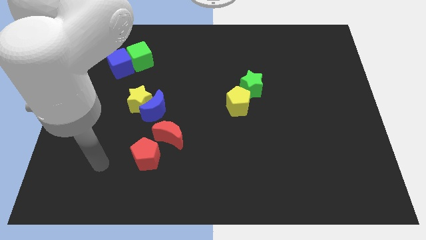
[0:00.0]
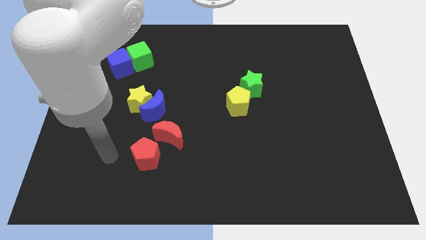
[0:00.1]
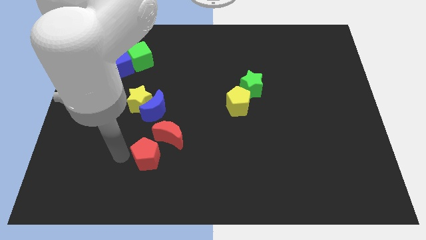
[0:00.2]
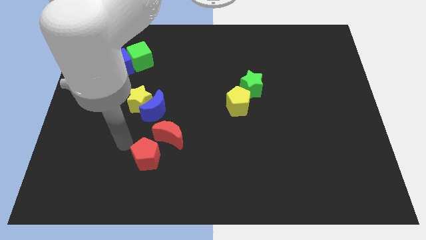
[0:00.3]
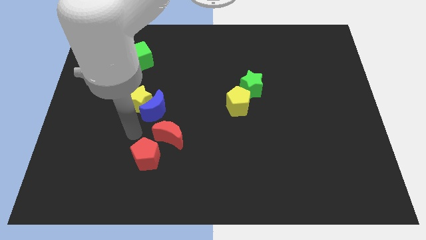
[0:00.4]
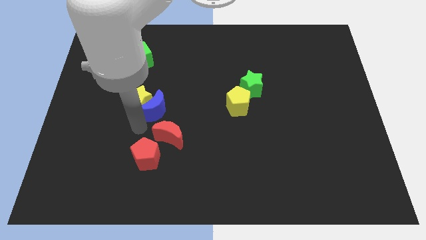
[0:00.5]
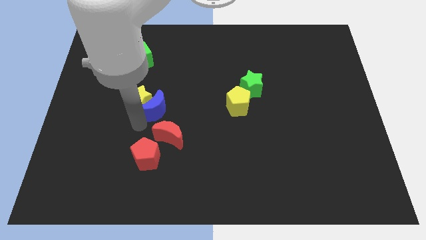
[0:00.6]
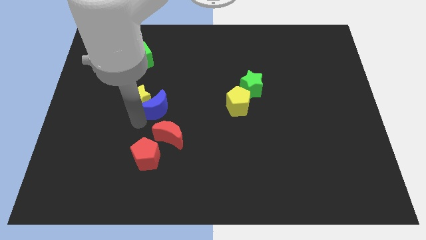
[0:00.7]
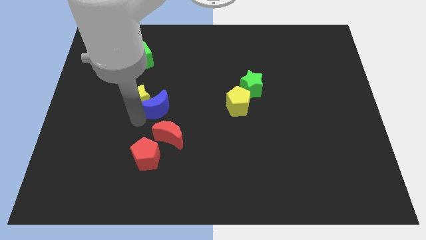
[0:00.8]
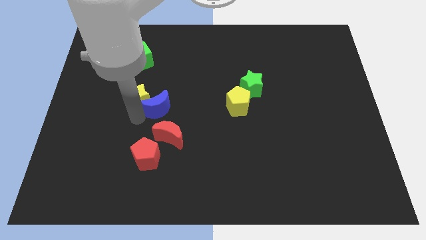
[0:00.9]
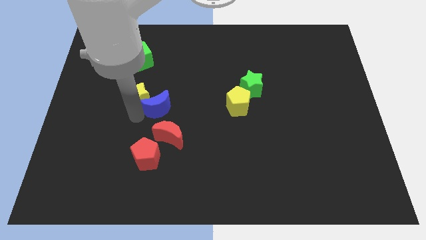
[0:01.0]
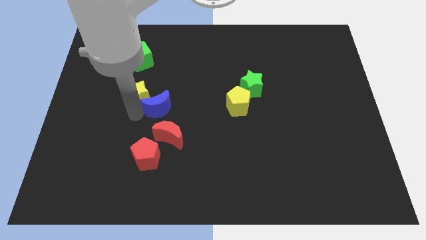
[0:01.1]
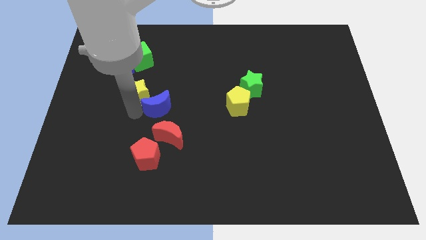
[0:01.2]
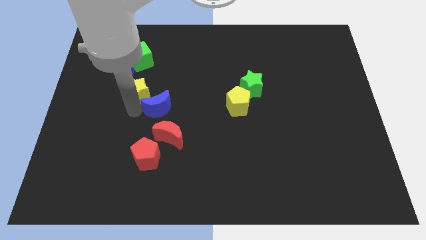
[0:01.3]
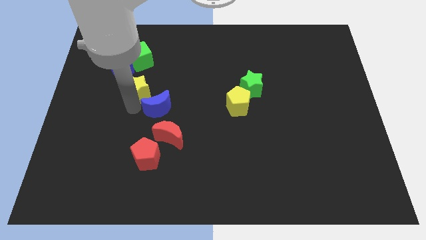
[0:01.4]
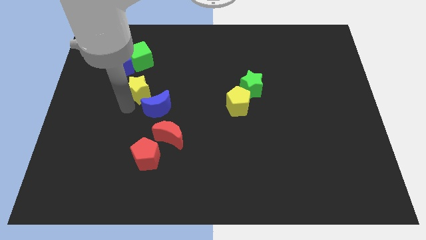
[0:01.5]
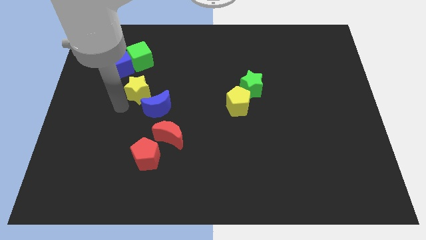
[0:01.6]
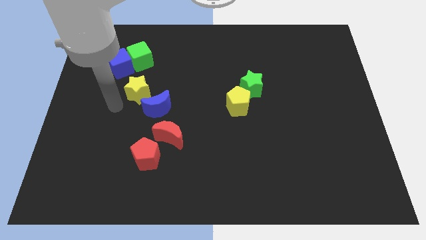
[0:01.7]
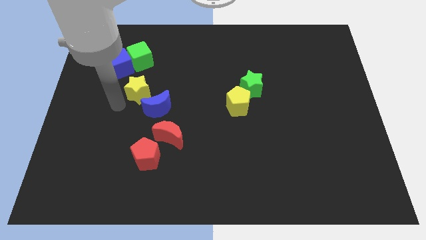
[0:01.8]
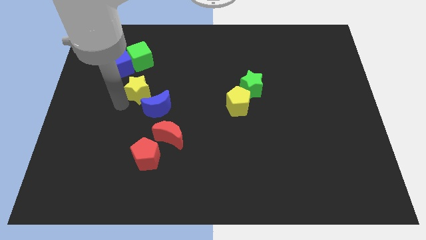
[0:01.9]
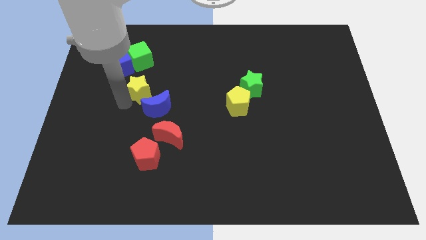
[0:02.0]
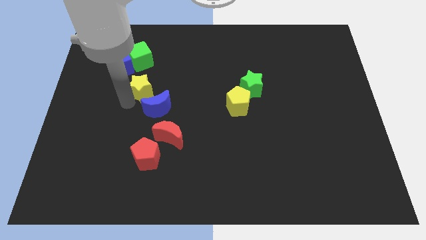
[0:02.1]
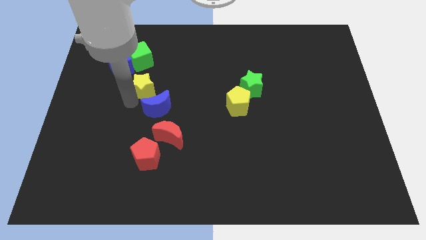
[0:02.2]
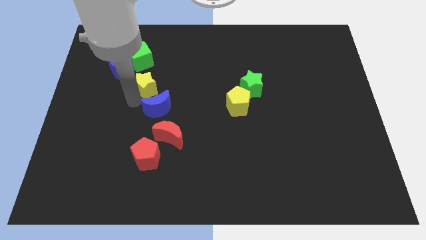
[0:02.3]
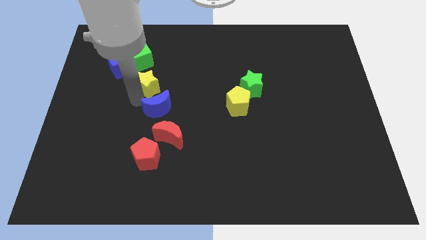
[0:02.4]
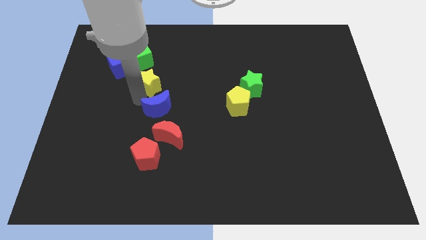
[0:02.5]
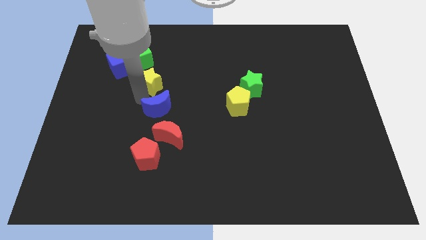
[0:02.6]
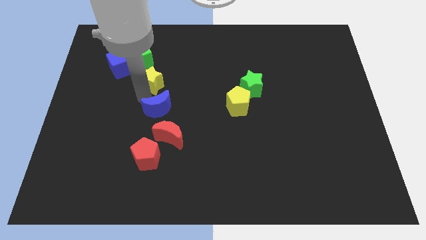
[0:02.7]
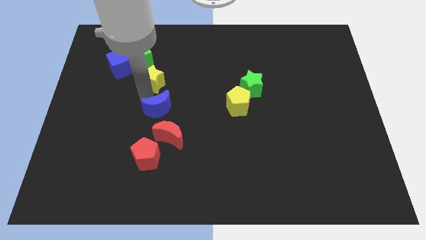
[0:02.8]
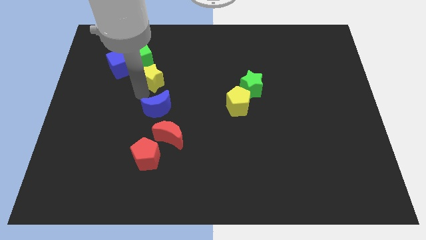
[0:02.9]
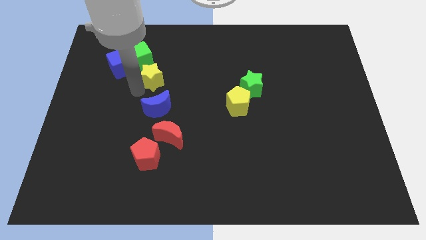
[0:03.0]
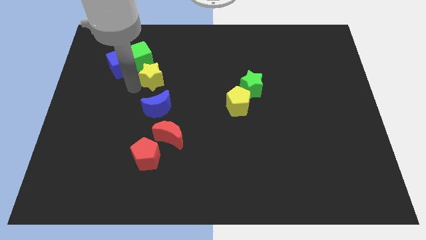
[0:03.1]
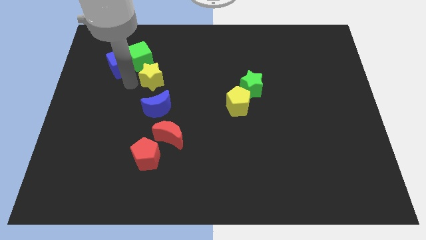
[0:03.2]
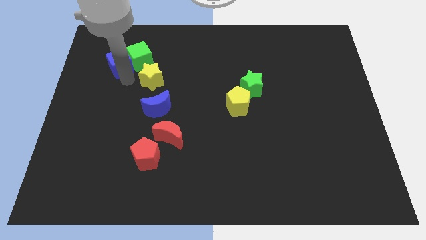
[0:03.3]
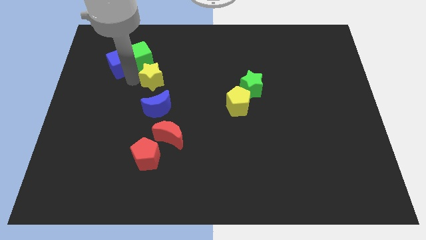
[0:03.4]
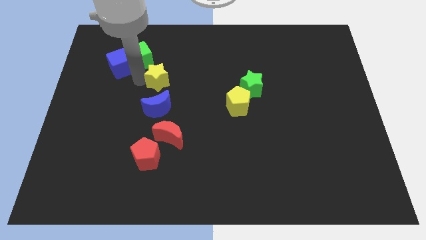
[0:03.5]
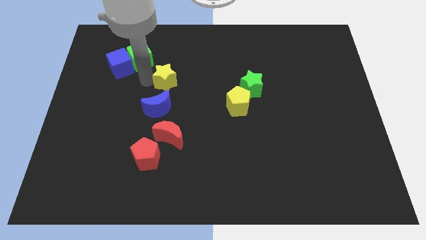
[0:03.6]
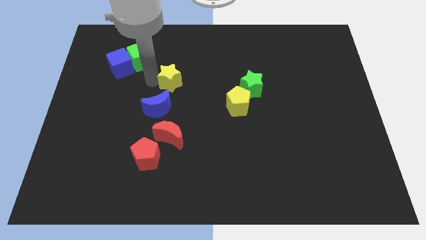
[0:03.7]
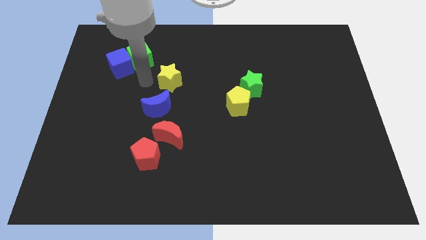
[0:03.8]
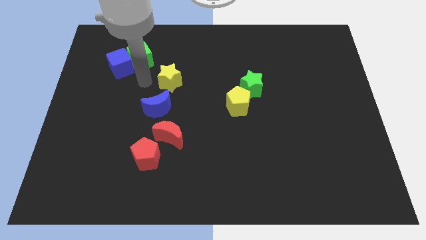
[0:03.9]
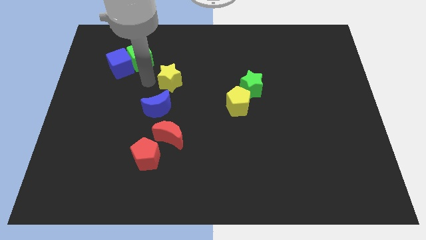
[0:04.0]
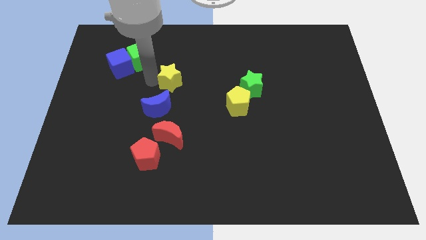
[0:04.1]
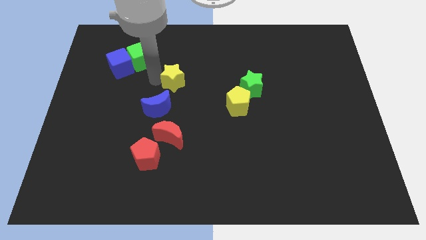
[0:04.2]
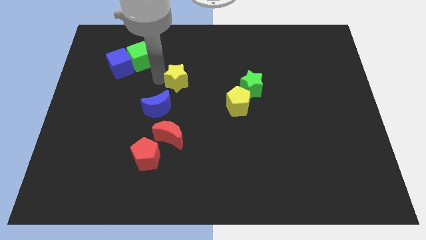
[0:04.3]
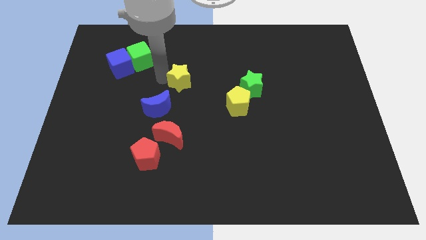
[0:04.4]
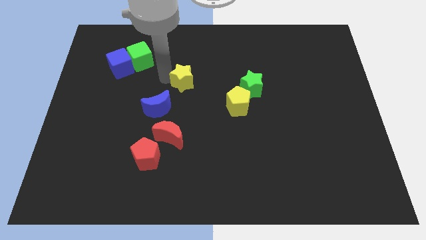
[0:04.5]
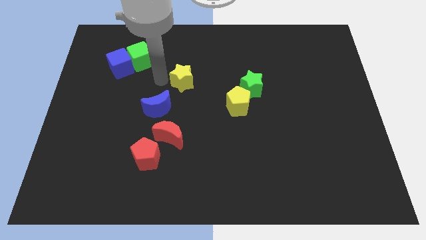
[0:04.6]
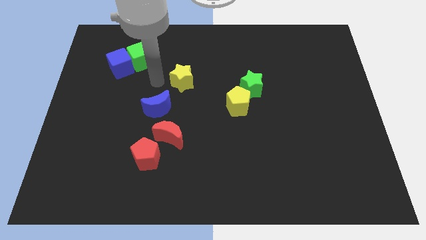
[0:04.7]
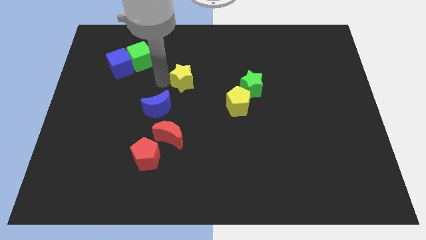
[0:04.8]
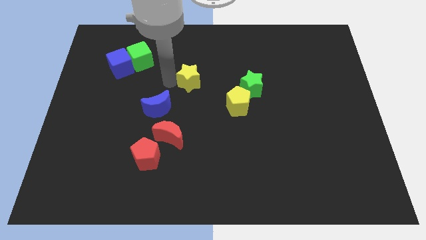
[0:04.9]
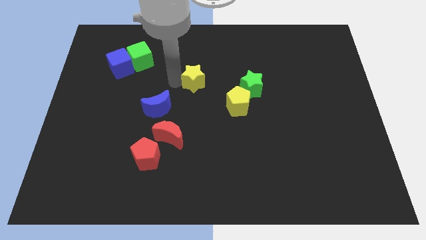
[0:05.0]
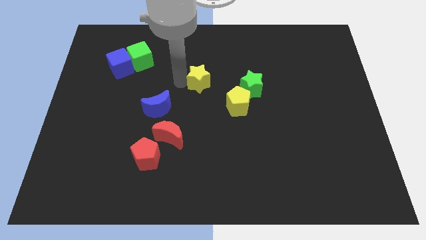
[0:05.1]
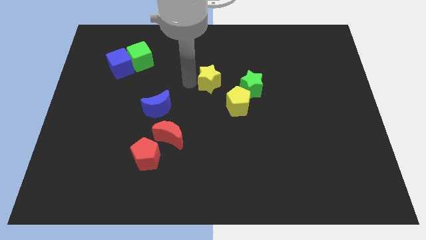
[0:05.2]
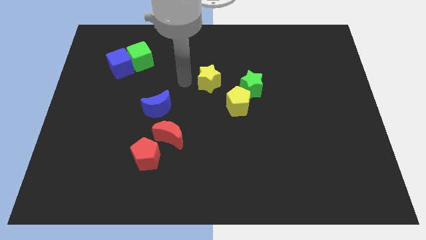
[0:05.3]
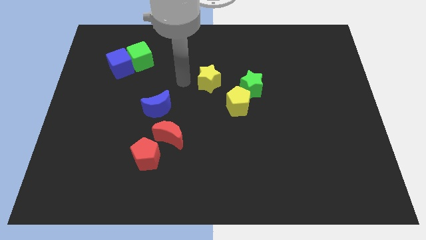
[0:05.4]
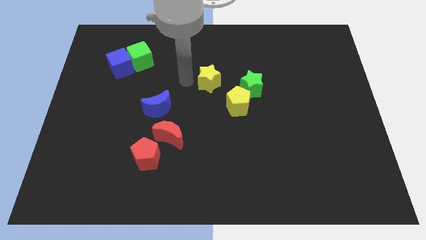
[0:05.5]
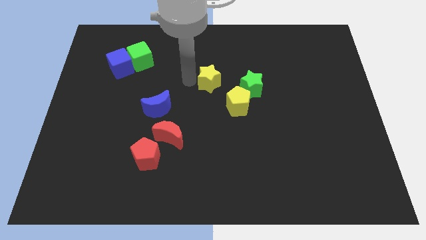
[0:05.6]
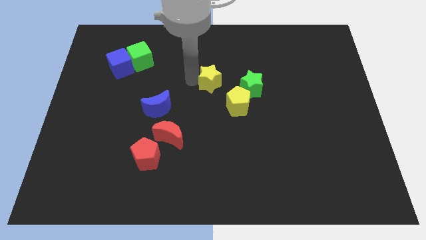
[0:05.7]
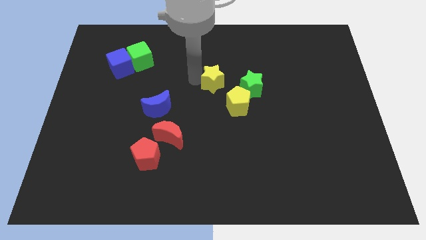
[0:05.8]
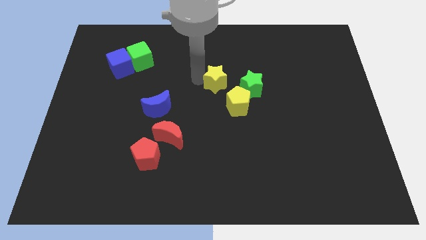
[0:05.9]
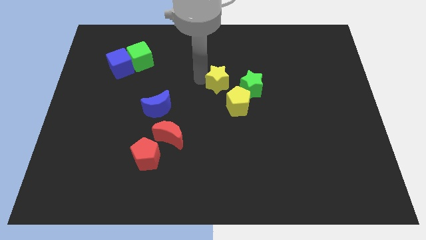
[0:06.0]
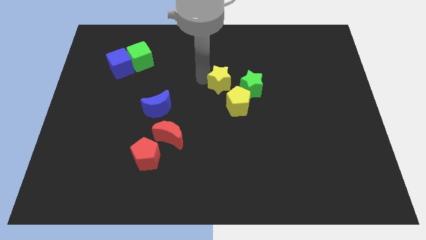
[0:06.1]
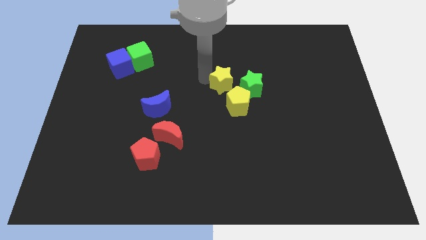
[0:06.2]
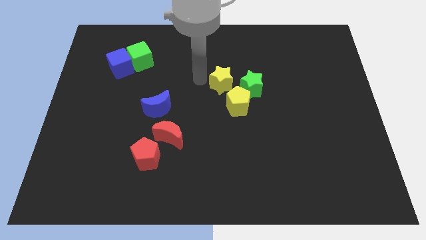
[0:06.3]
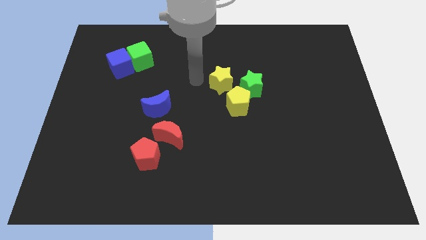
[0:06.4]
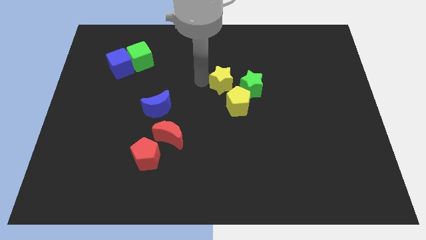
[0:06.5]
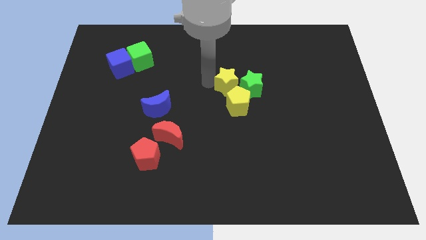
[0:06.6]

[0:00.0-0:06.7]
slide the yellow star towards the green star
